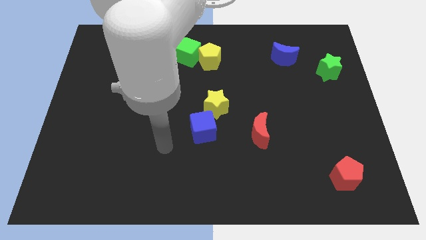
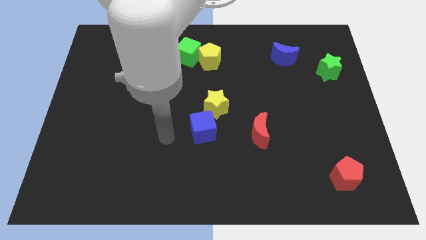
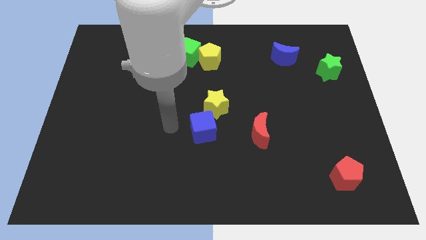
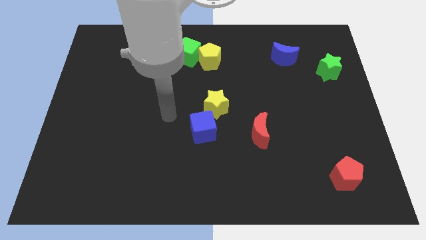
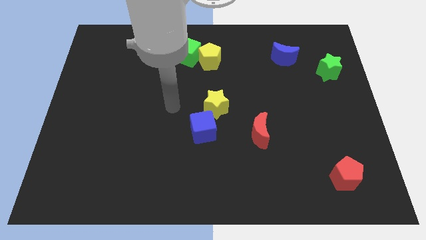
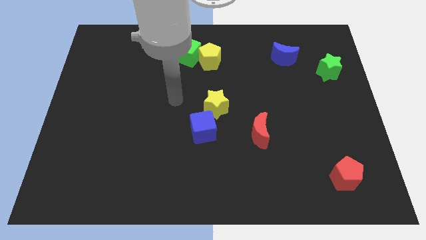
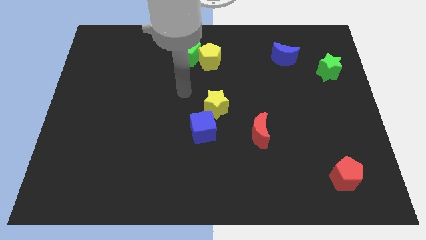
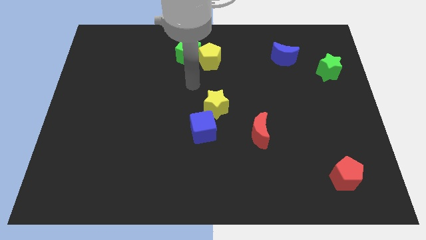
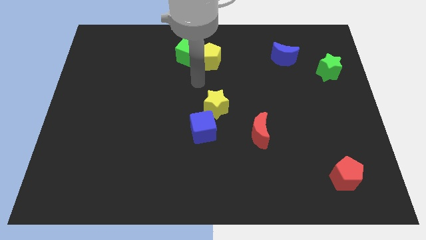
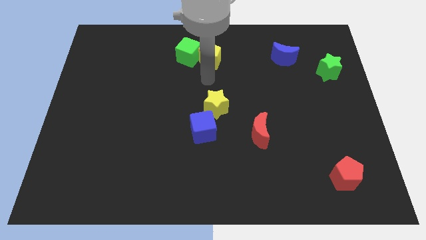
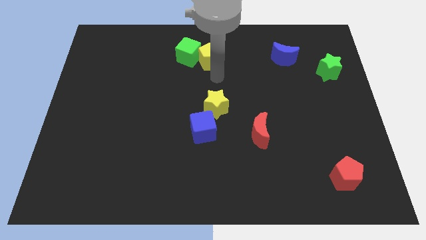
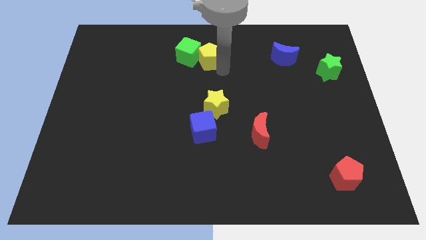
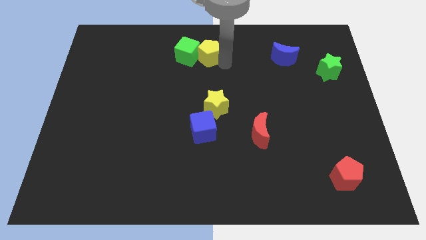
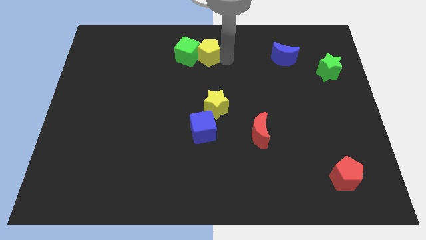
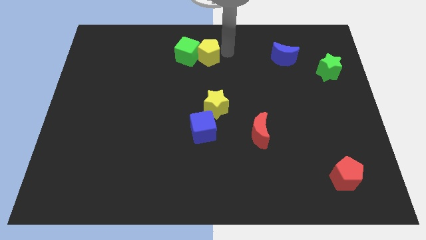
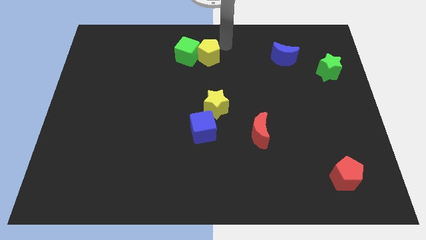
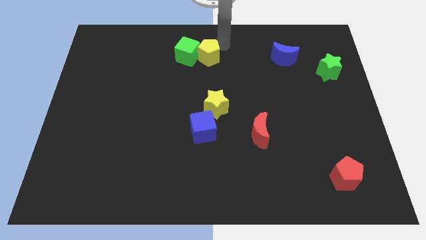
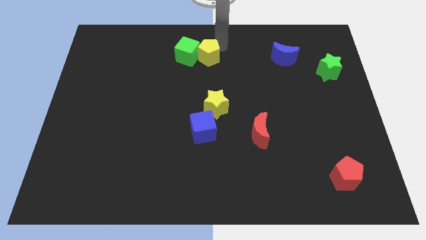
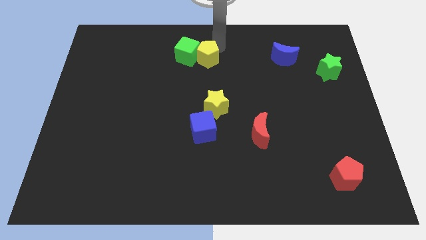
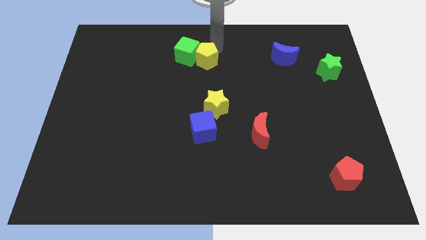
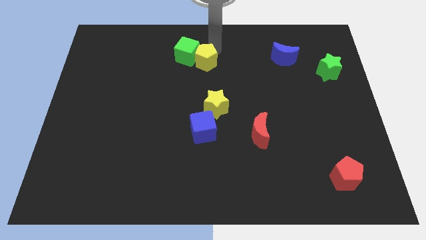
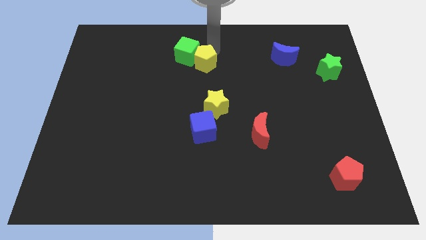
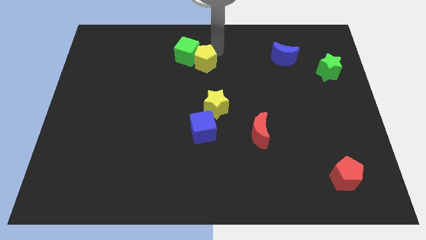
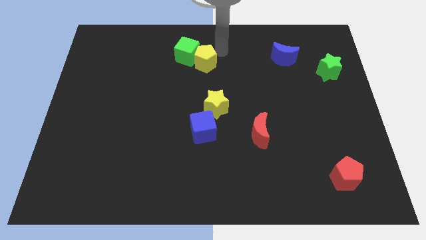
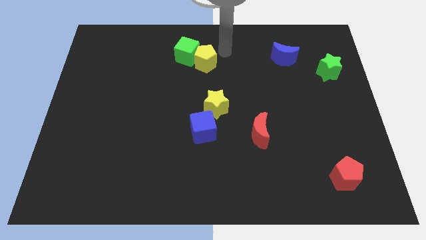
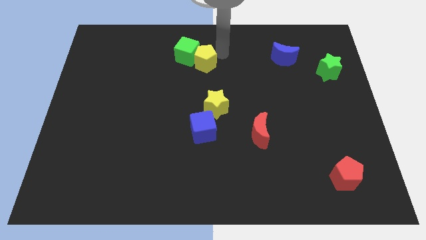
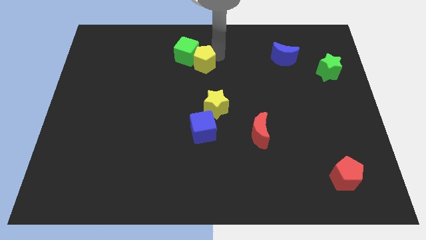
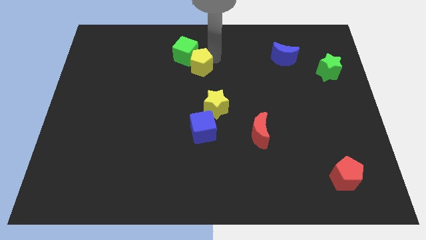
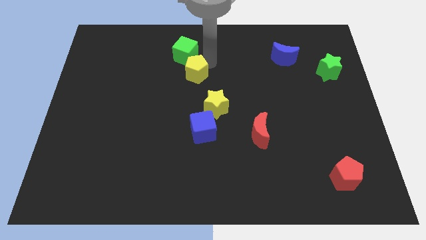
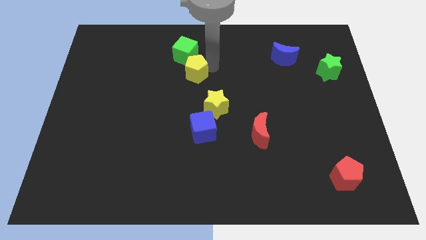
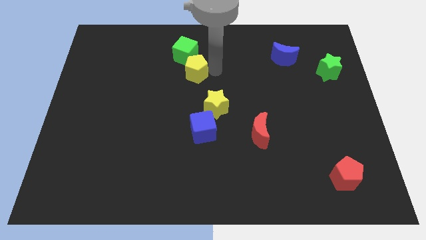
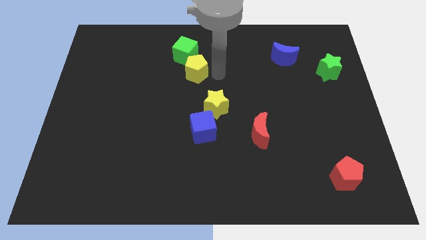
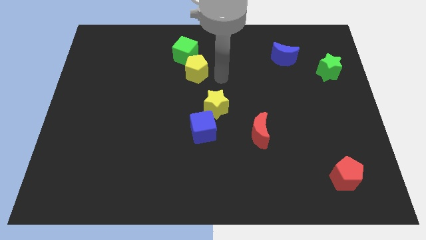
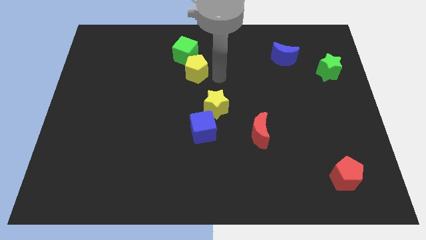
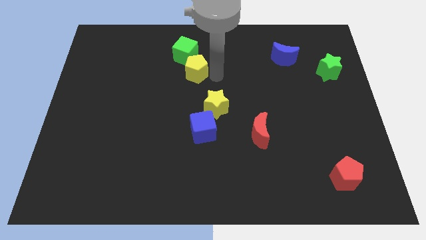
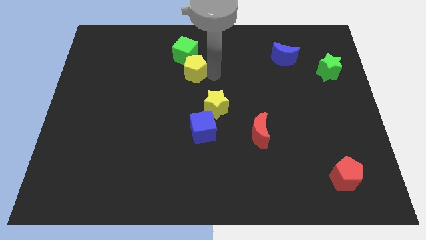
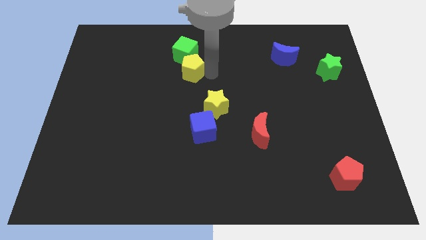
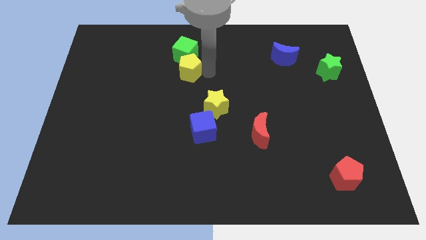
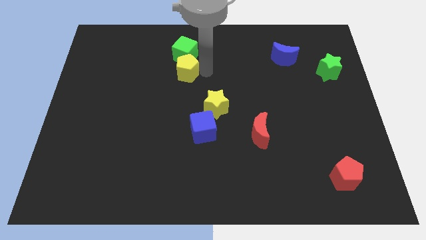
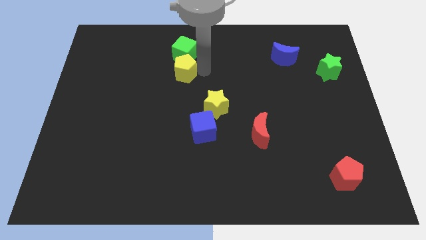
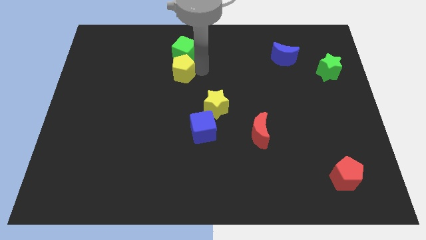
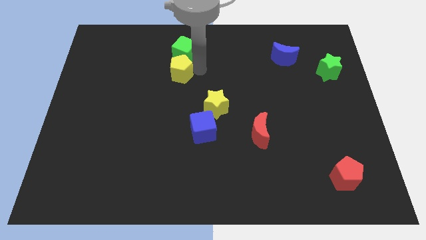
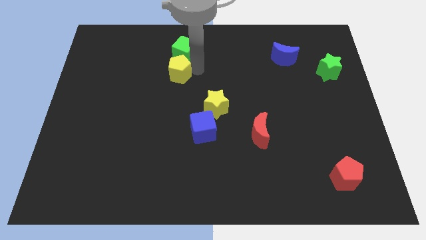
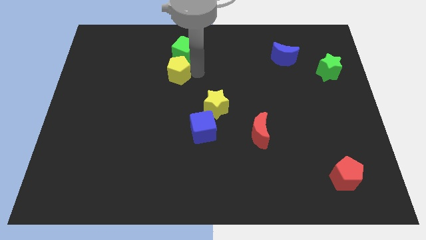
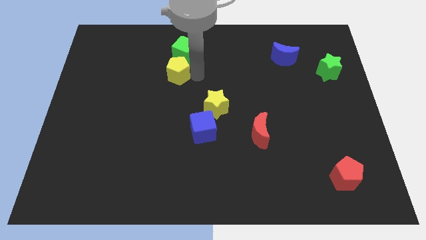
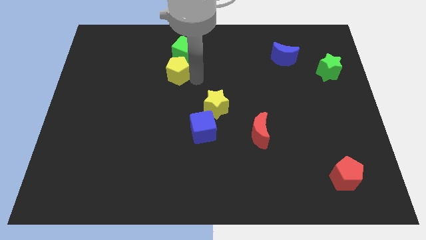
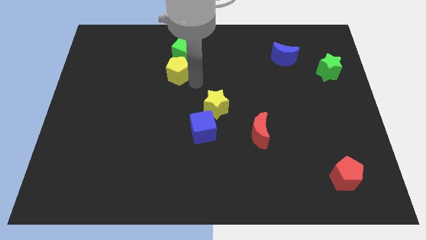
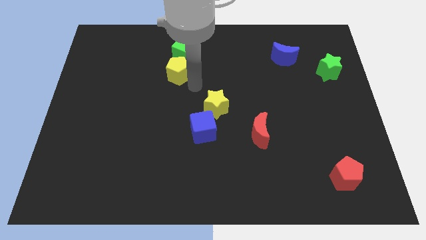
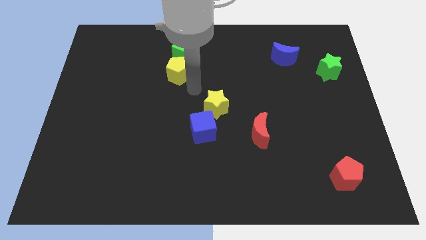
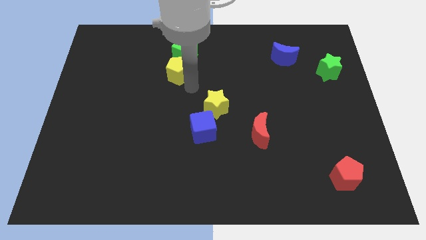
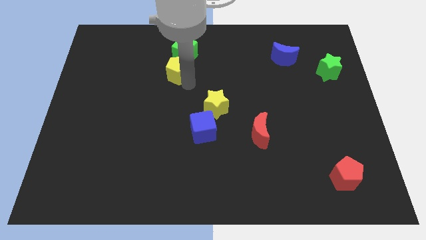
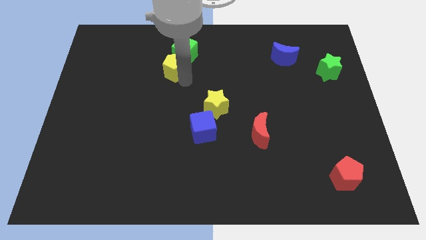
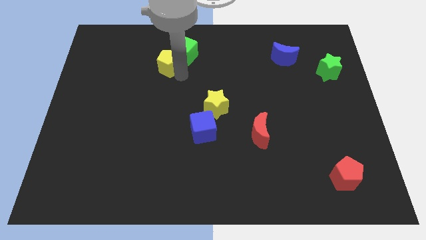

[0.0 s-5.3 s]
push the yellow pentagon to the left side of the green cube

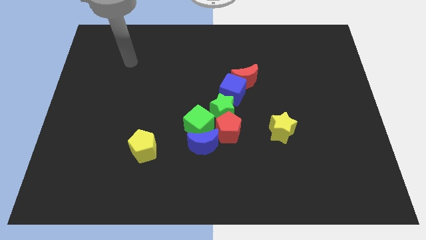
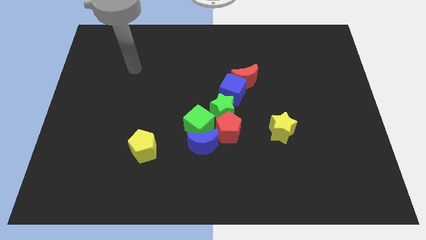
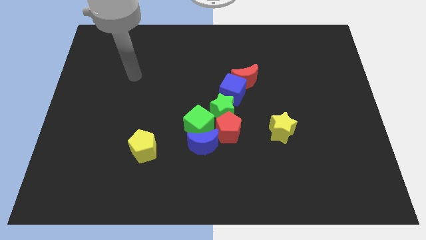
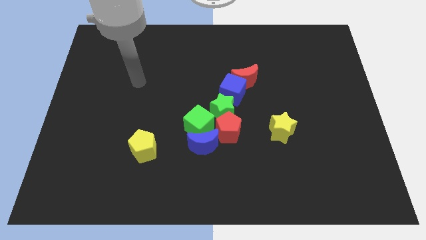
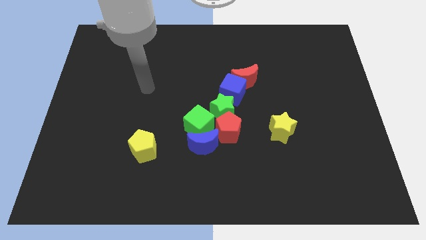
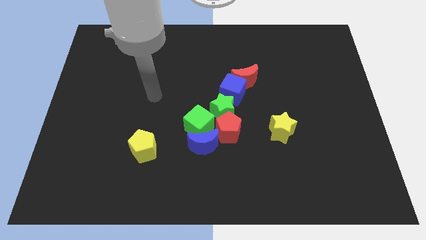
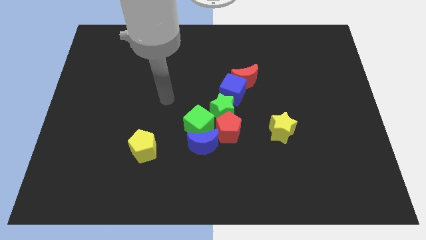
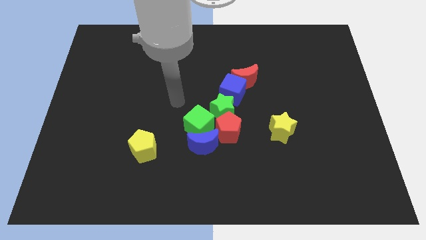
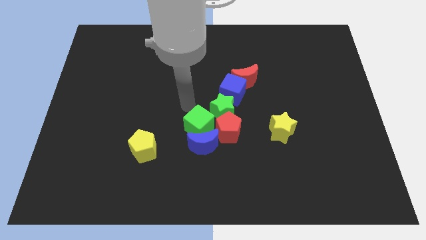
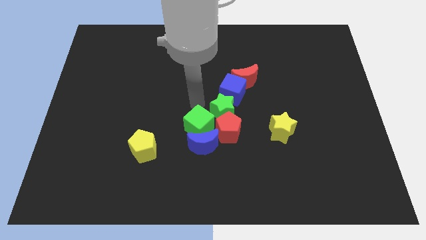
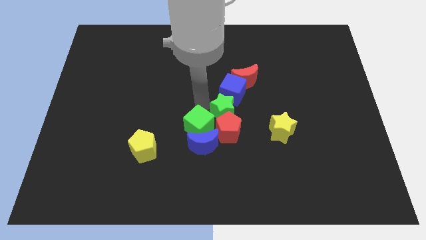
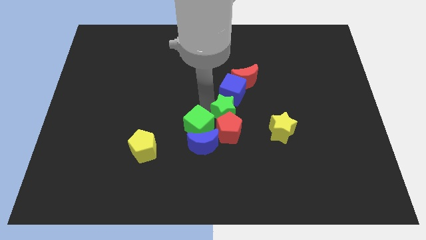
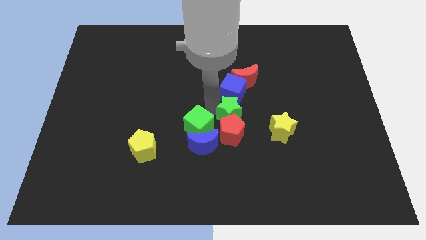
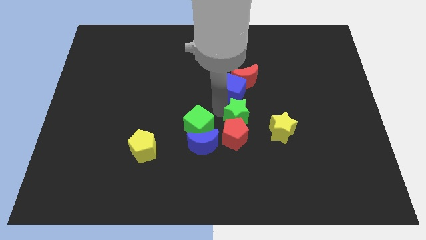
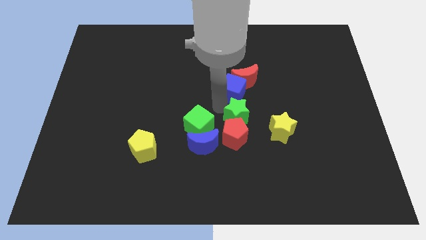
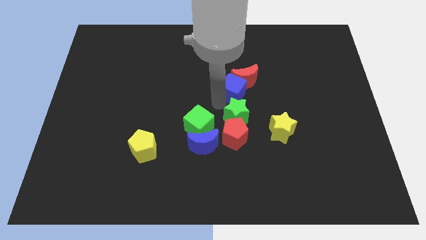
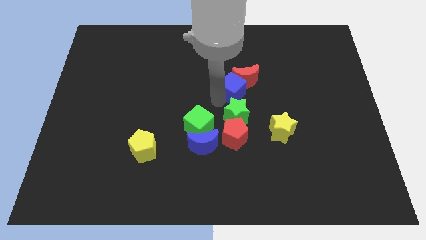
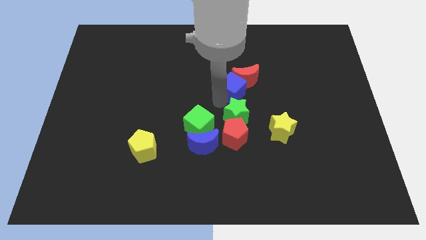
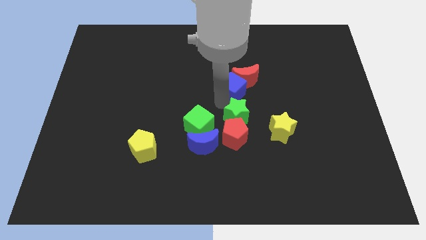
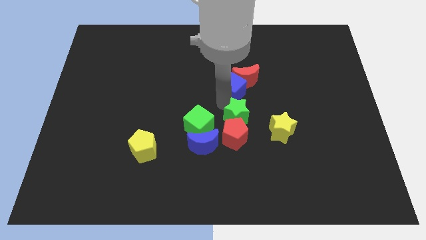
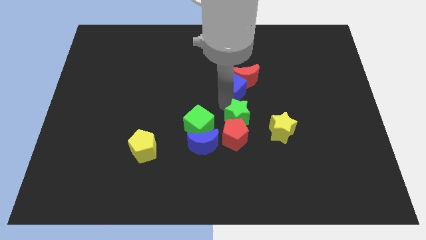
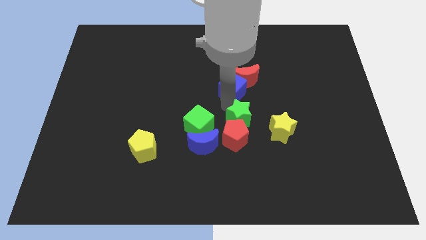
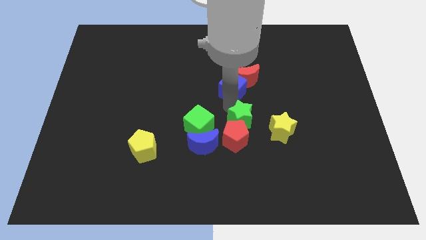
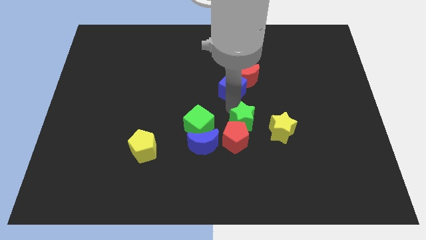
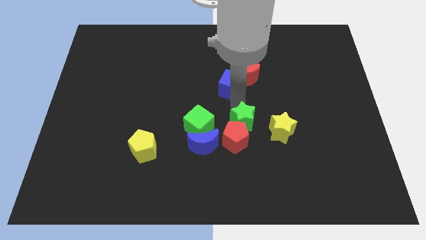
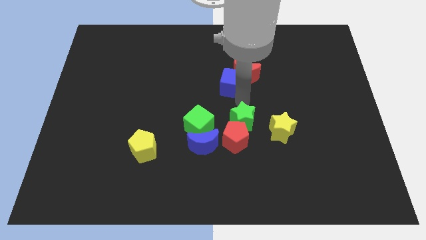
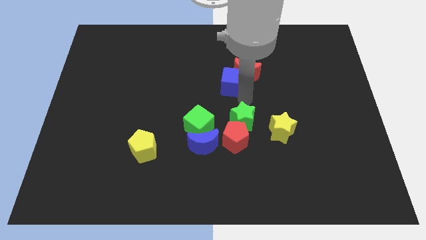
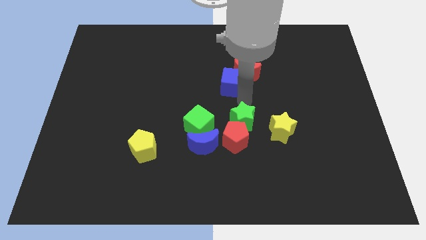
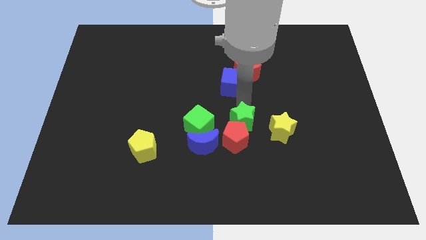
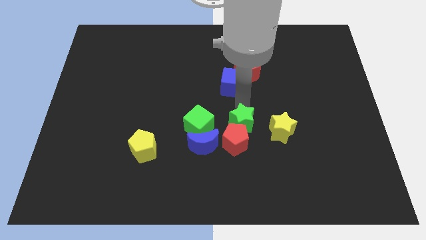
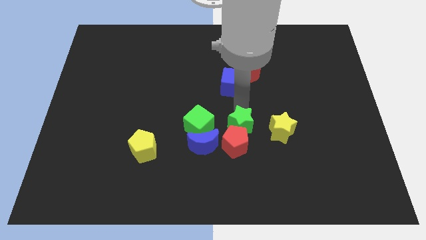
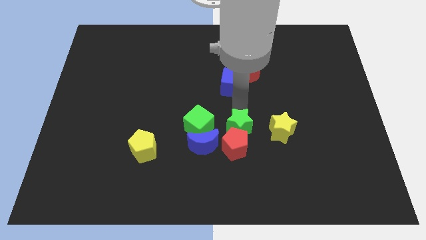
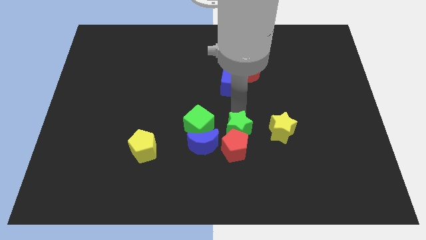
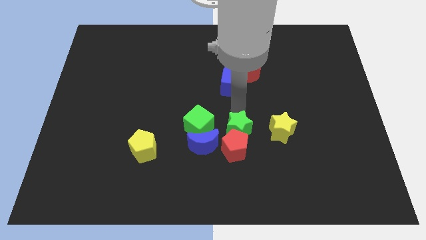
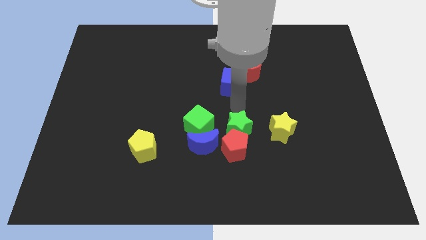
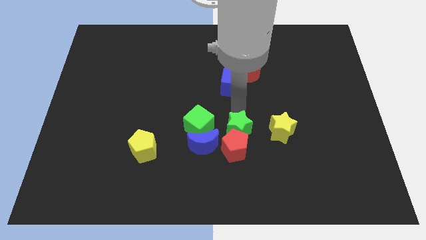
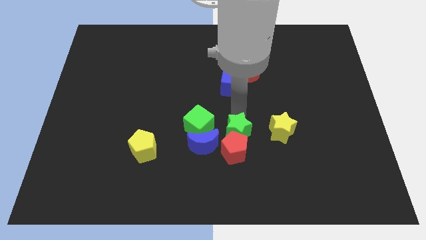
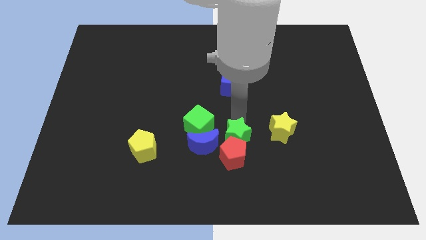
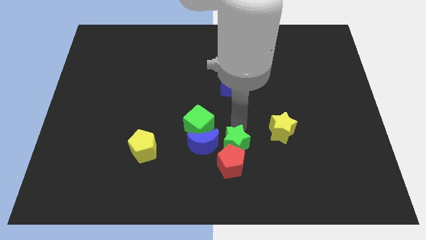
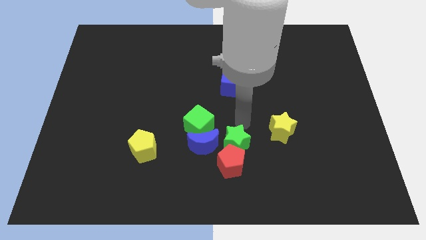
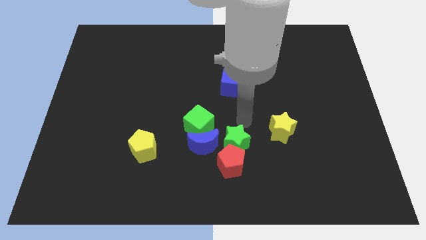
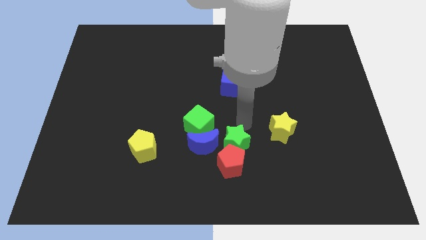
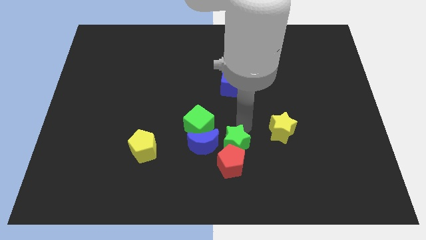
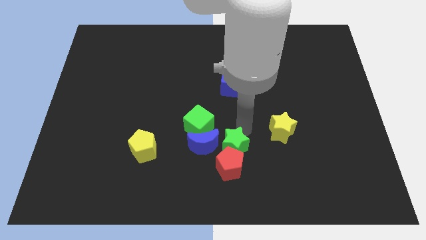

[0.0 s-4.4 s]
put the green star to the bottom right of the blue moon
